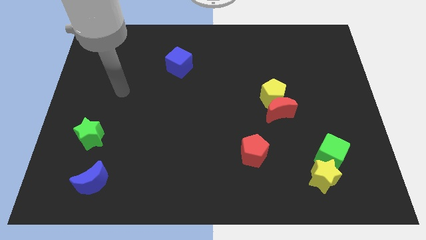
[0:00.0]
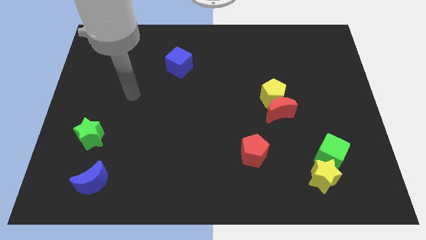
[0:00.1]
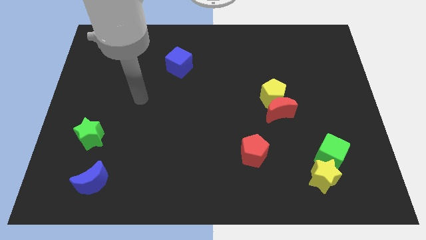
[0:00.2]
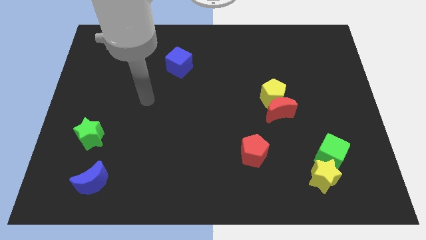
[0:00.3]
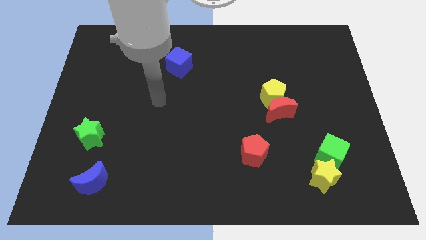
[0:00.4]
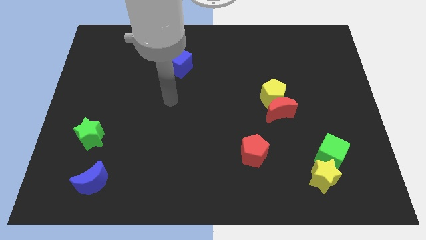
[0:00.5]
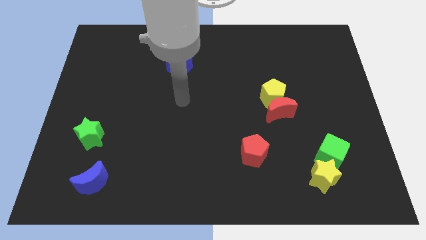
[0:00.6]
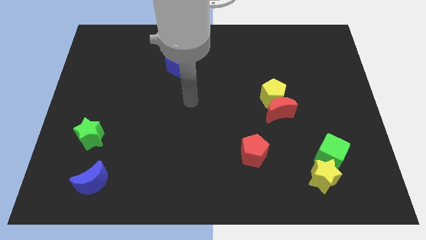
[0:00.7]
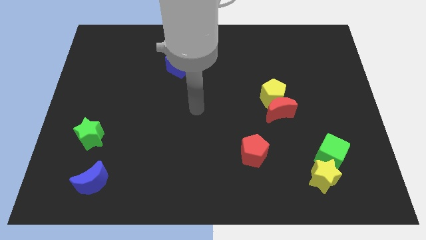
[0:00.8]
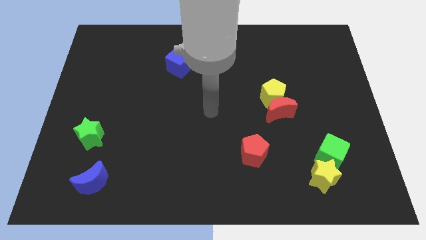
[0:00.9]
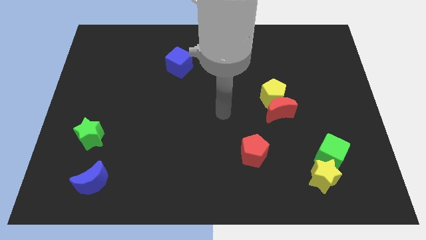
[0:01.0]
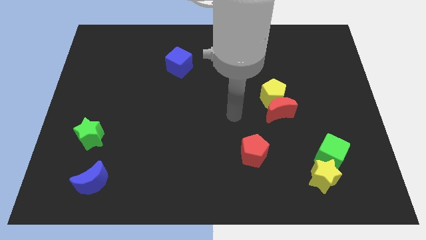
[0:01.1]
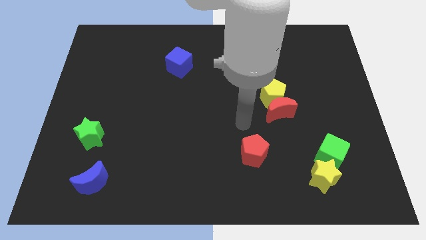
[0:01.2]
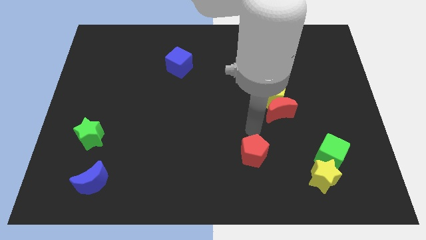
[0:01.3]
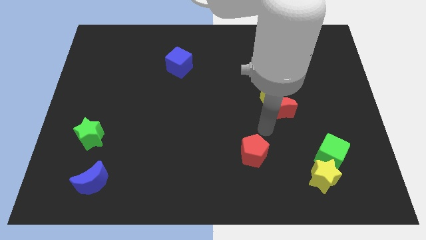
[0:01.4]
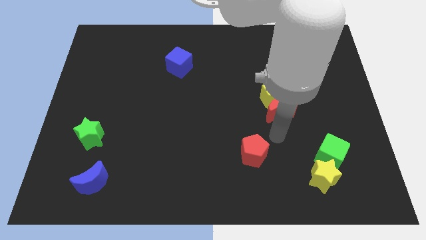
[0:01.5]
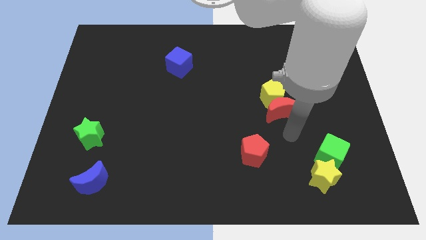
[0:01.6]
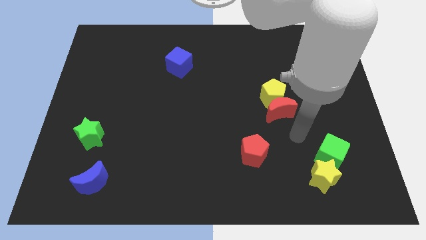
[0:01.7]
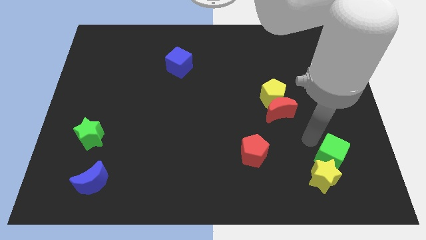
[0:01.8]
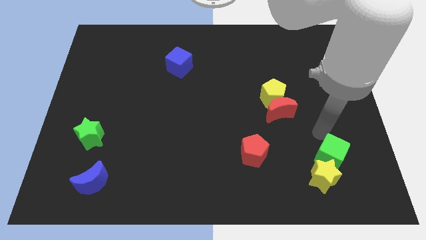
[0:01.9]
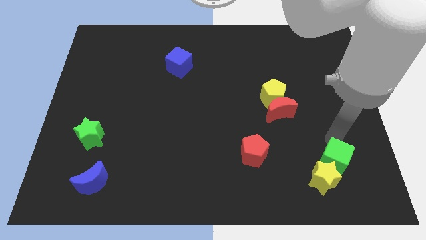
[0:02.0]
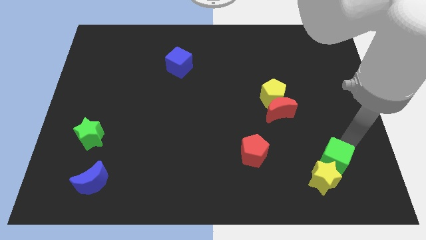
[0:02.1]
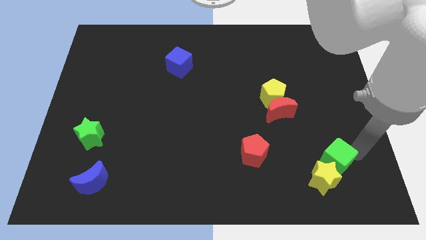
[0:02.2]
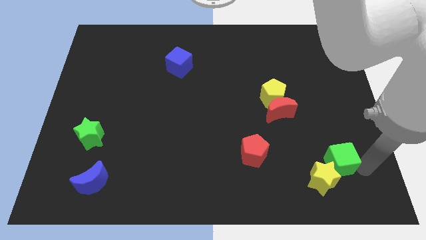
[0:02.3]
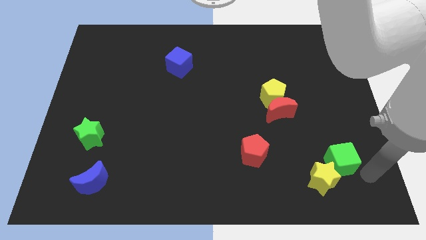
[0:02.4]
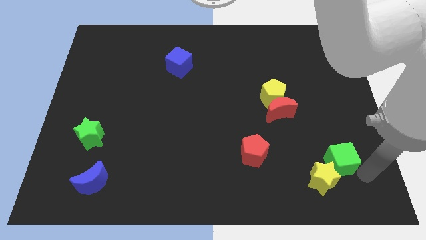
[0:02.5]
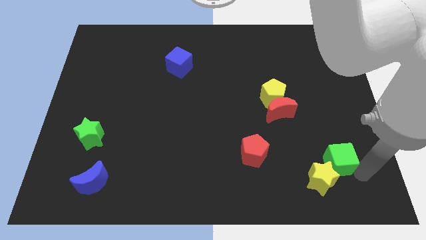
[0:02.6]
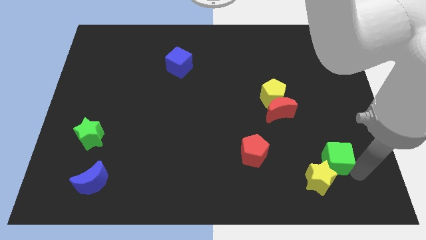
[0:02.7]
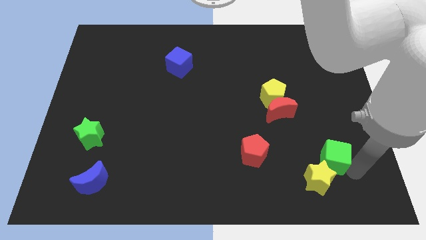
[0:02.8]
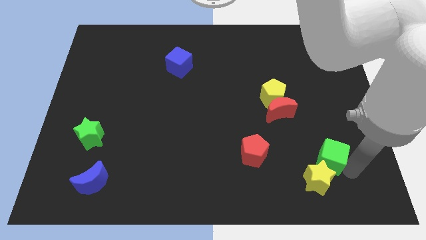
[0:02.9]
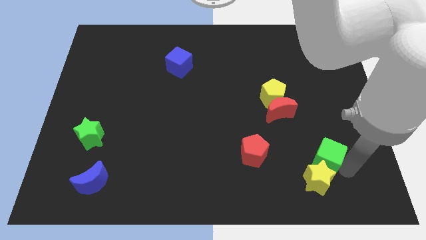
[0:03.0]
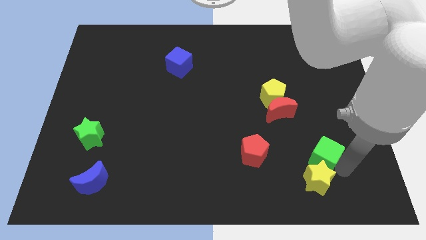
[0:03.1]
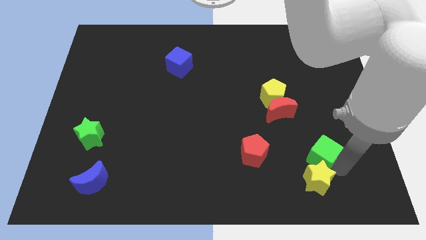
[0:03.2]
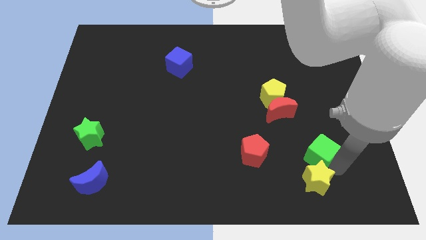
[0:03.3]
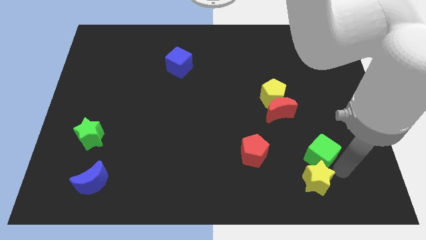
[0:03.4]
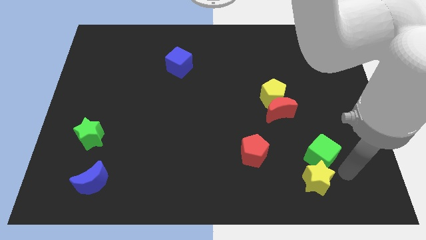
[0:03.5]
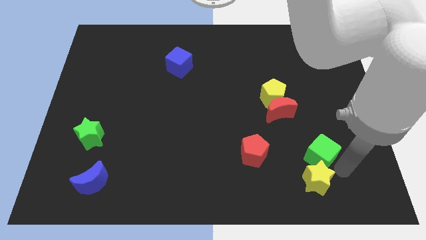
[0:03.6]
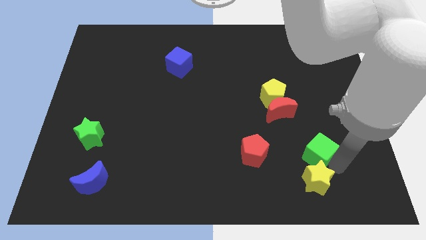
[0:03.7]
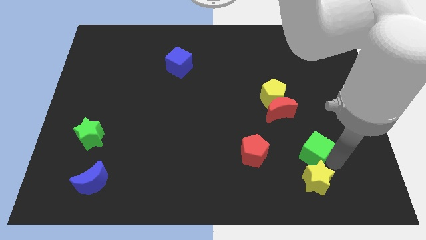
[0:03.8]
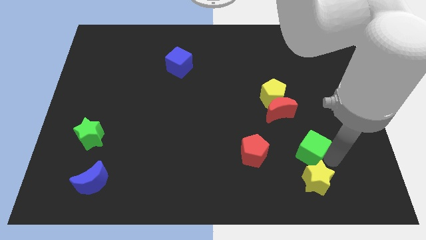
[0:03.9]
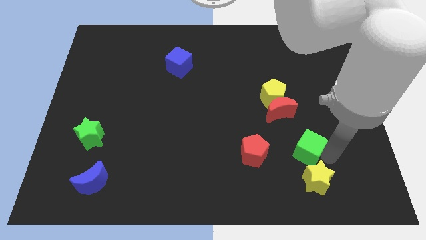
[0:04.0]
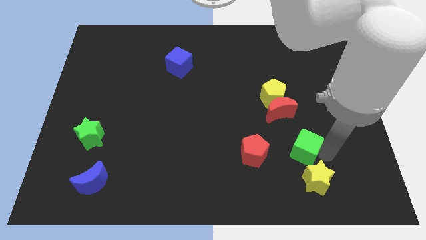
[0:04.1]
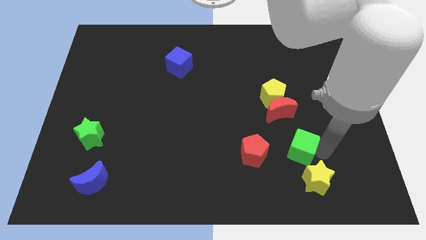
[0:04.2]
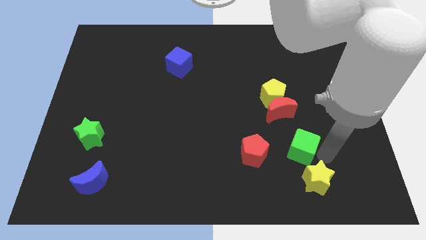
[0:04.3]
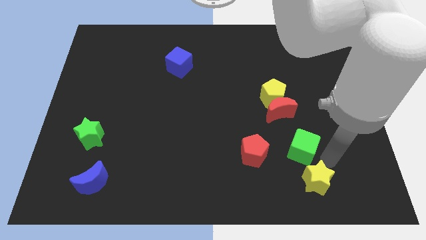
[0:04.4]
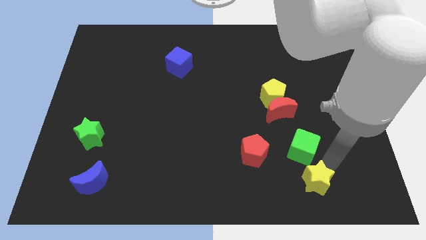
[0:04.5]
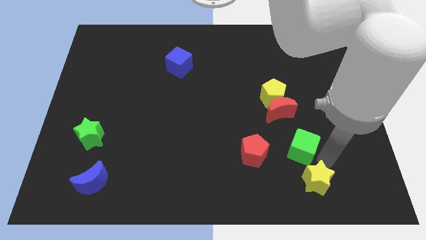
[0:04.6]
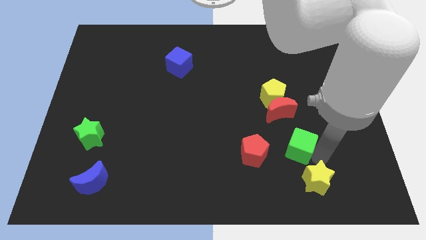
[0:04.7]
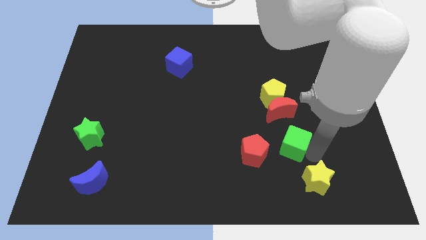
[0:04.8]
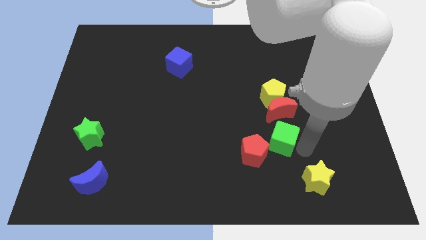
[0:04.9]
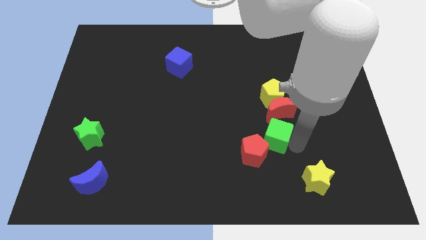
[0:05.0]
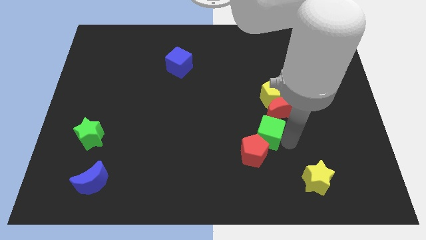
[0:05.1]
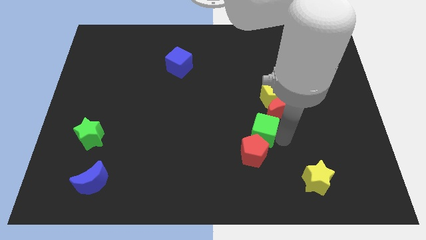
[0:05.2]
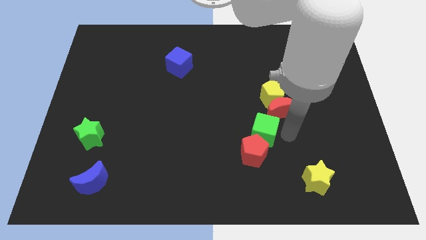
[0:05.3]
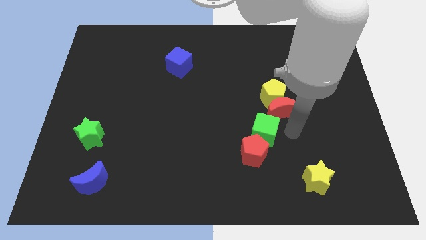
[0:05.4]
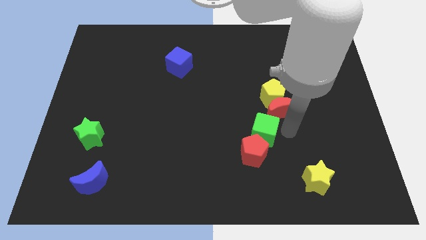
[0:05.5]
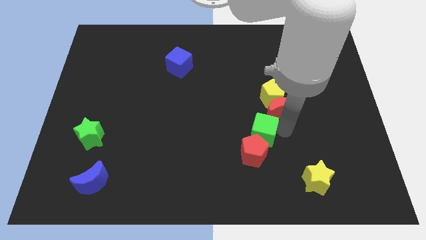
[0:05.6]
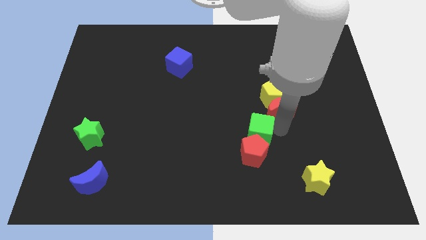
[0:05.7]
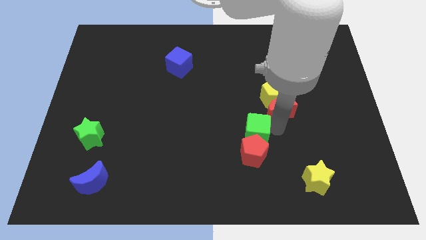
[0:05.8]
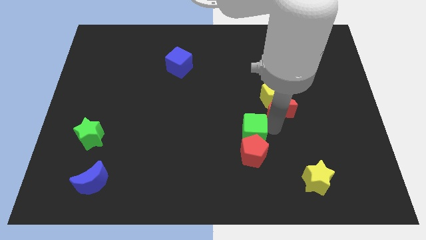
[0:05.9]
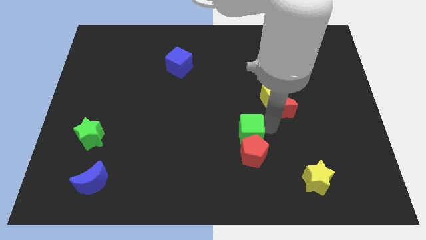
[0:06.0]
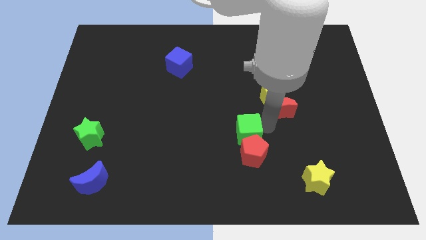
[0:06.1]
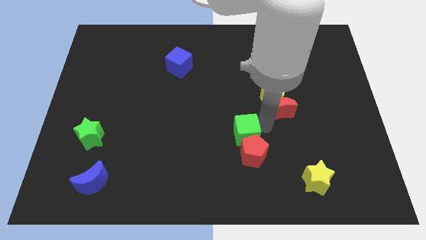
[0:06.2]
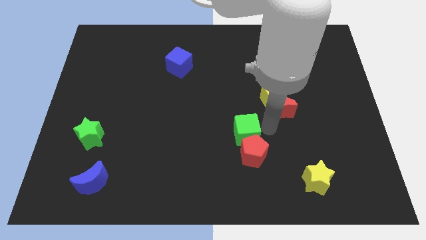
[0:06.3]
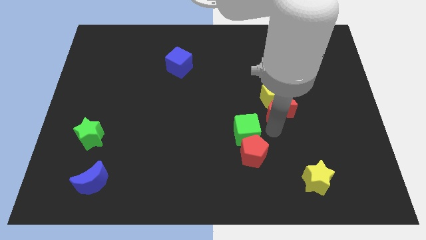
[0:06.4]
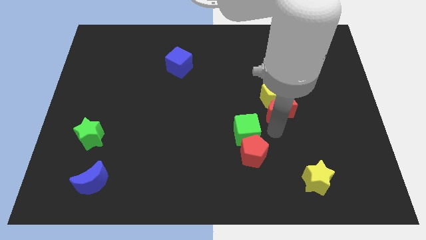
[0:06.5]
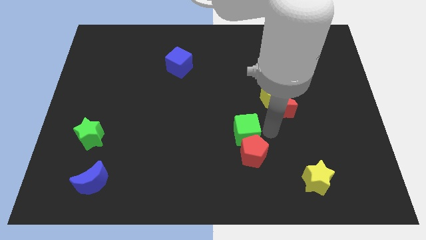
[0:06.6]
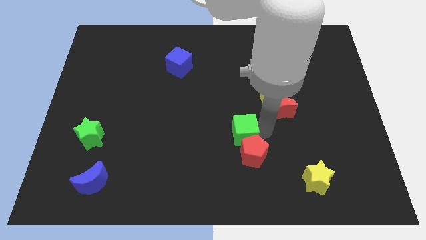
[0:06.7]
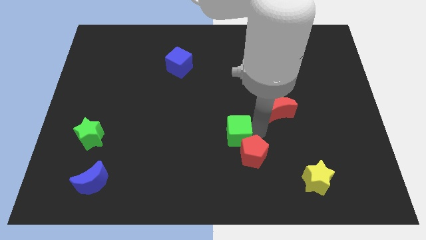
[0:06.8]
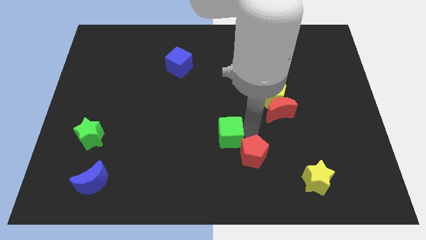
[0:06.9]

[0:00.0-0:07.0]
push the green cube to the left

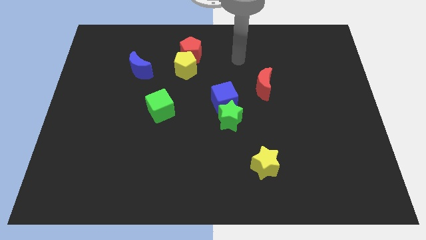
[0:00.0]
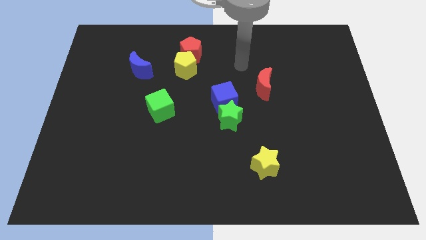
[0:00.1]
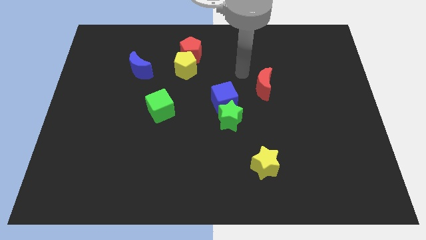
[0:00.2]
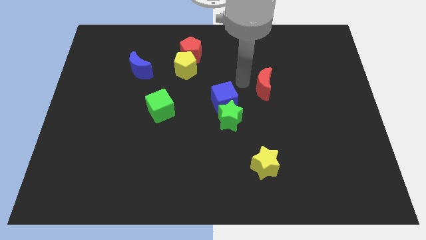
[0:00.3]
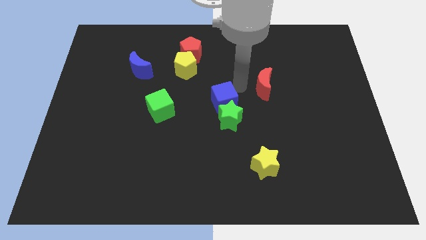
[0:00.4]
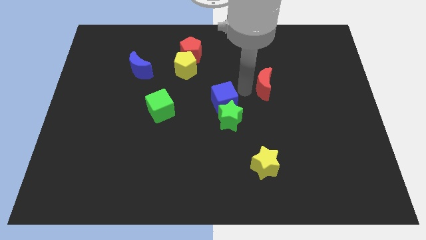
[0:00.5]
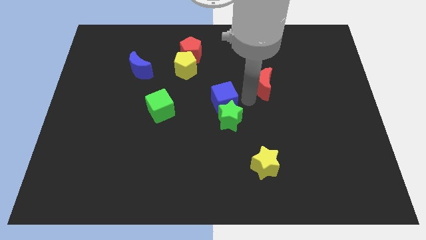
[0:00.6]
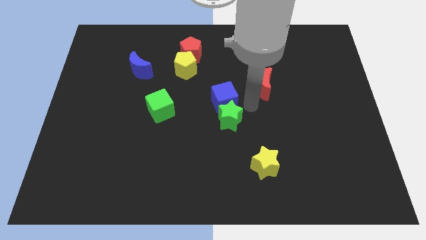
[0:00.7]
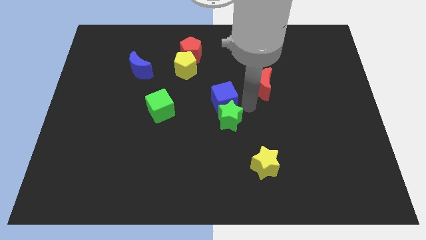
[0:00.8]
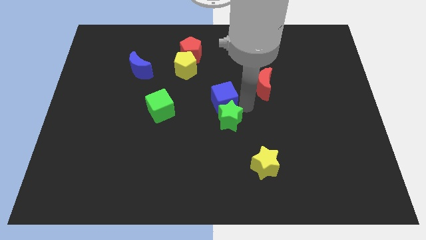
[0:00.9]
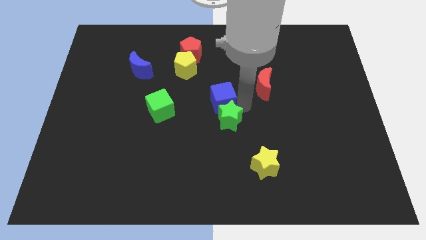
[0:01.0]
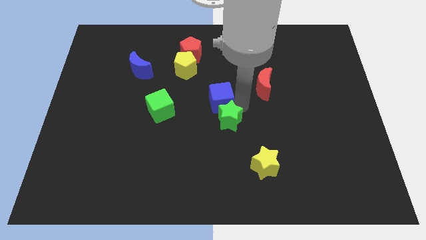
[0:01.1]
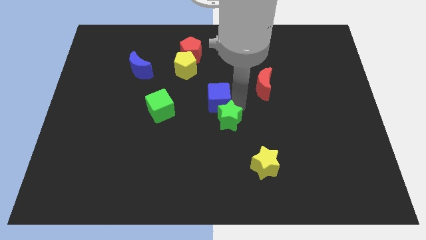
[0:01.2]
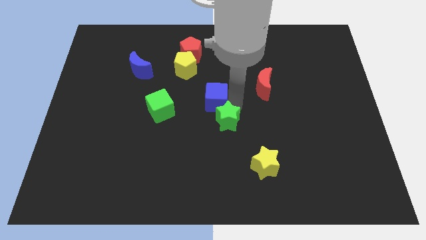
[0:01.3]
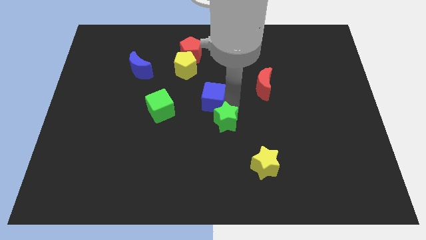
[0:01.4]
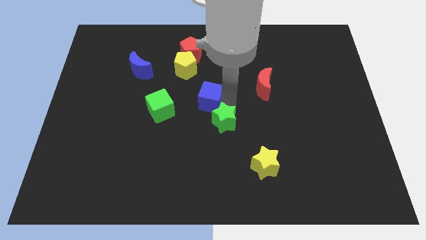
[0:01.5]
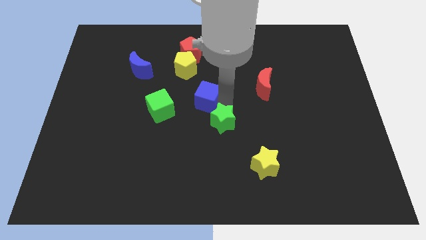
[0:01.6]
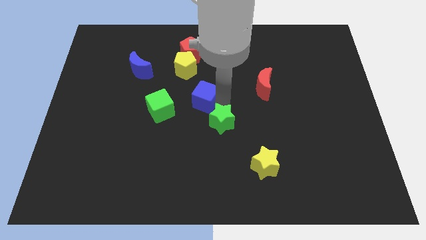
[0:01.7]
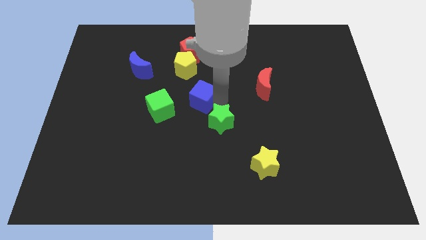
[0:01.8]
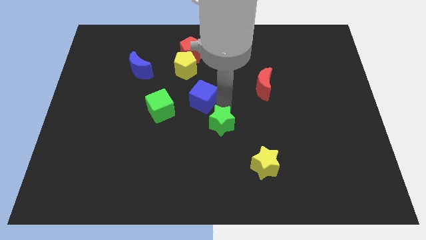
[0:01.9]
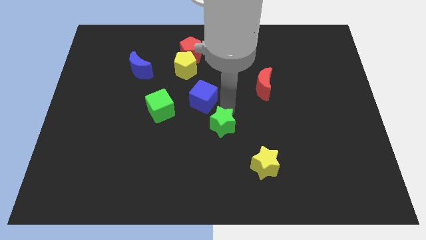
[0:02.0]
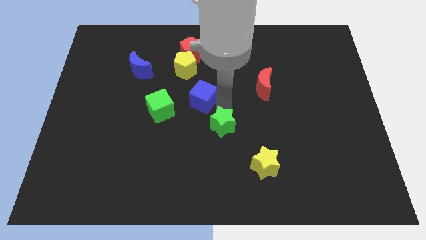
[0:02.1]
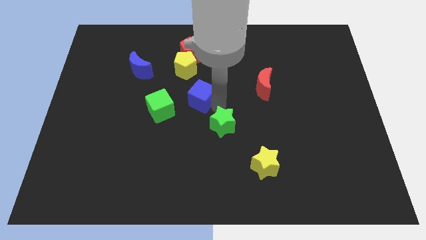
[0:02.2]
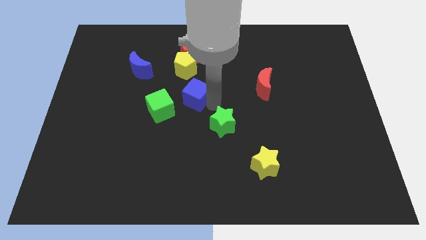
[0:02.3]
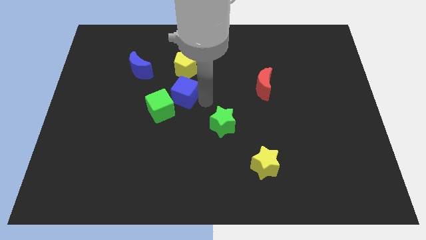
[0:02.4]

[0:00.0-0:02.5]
push the blue cube somewhat up and to the left
